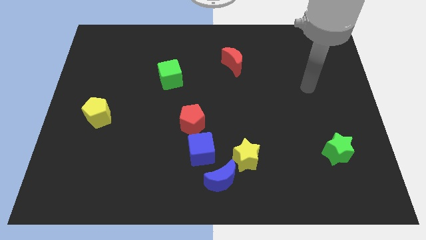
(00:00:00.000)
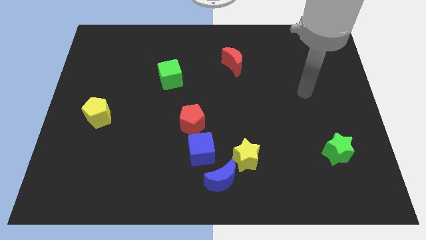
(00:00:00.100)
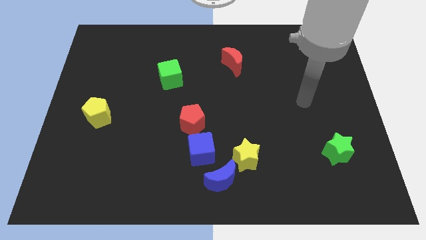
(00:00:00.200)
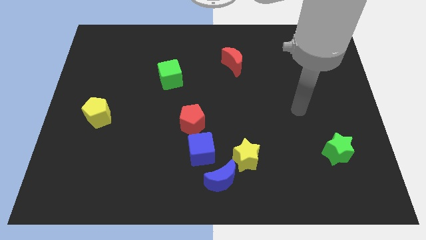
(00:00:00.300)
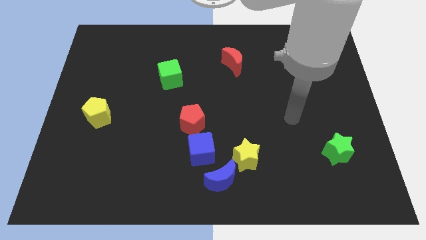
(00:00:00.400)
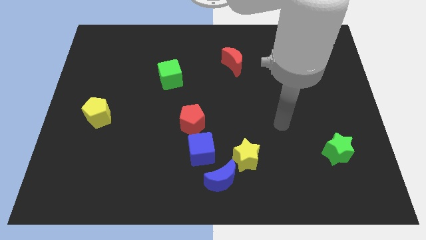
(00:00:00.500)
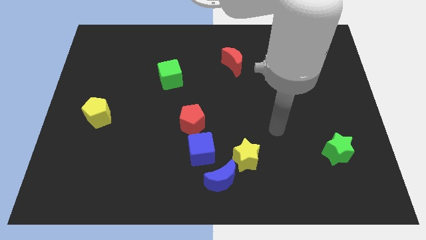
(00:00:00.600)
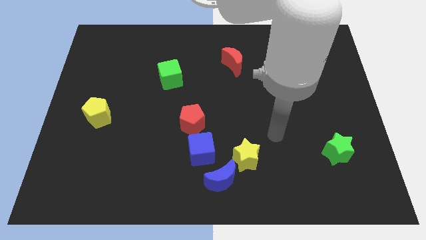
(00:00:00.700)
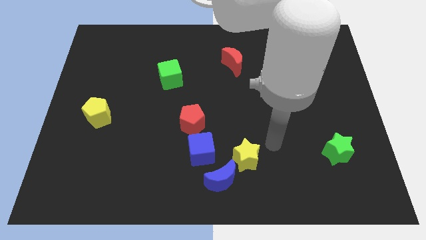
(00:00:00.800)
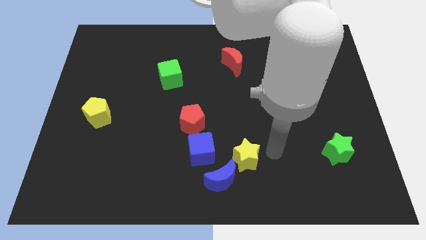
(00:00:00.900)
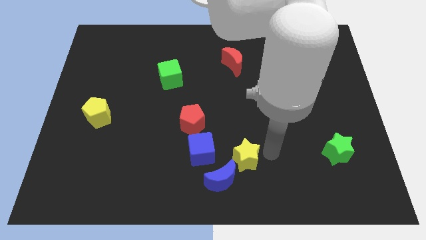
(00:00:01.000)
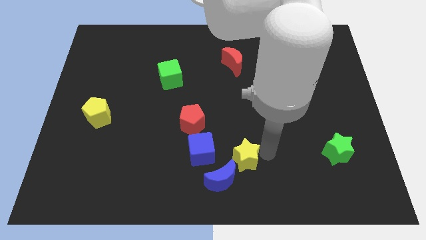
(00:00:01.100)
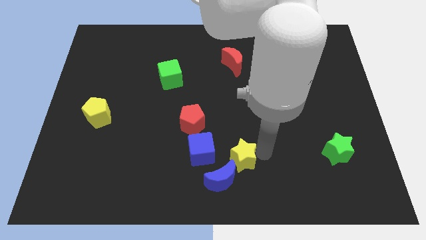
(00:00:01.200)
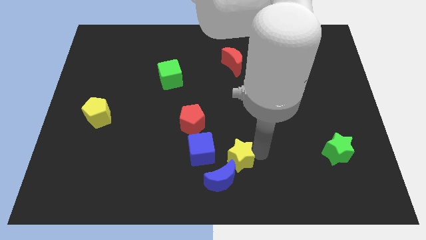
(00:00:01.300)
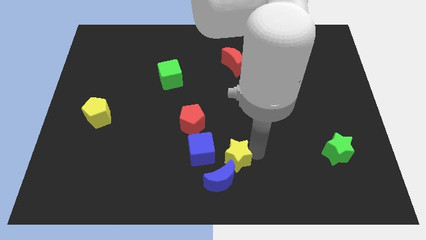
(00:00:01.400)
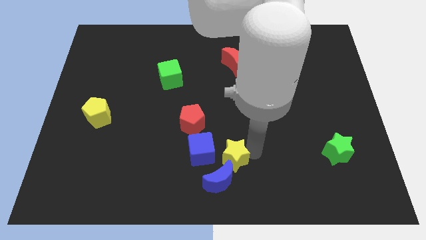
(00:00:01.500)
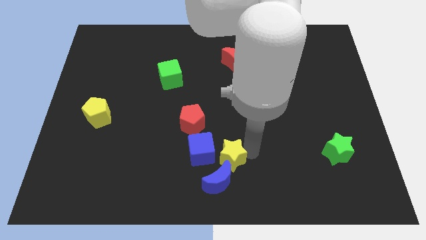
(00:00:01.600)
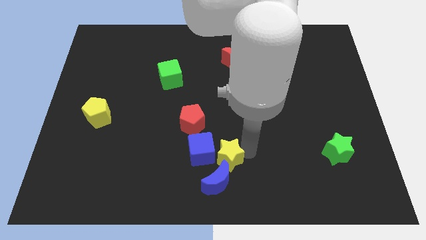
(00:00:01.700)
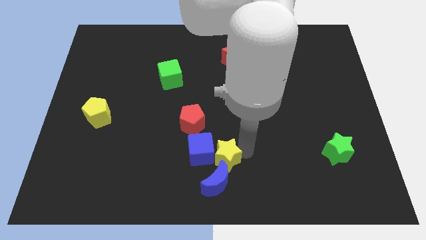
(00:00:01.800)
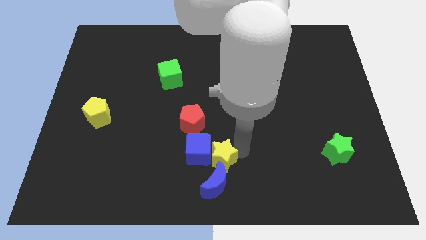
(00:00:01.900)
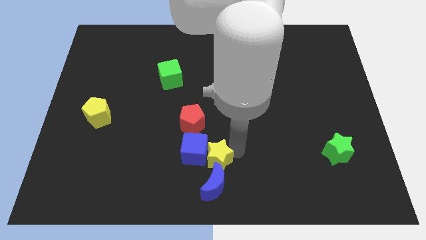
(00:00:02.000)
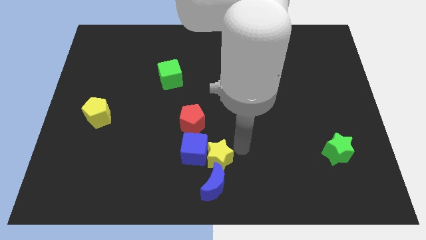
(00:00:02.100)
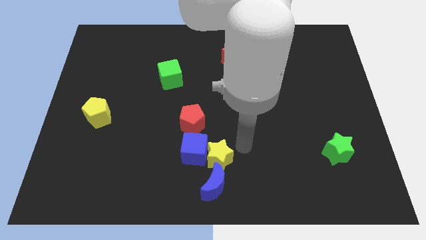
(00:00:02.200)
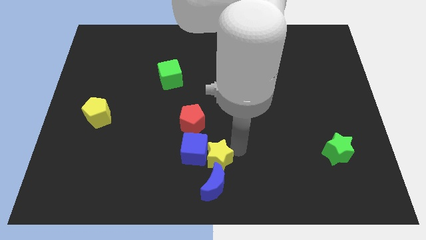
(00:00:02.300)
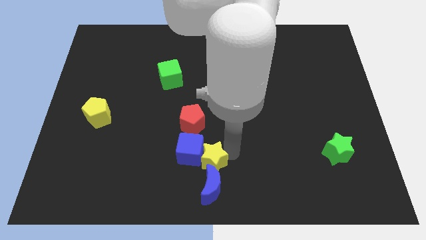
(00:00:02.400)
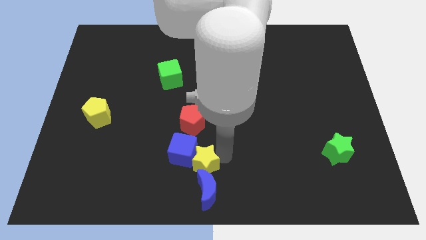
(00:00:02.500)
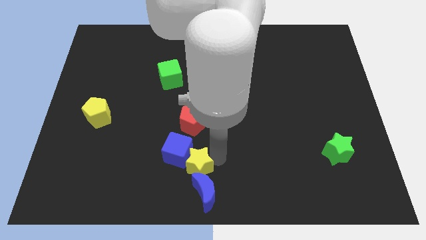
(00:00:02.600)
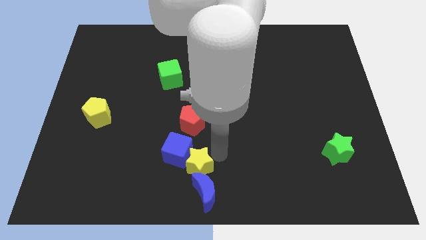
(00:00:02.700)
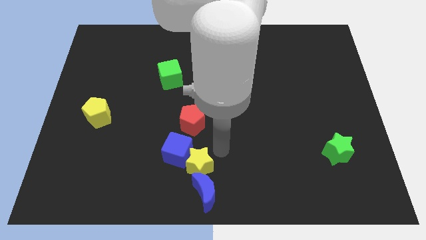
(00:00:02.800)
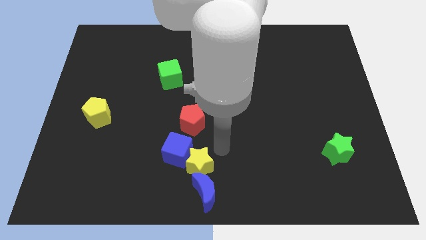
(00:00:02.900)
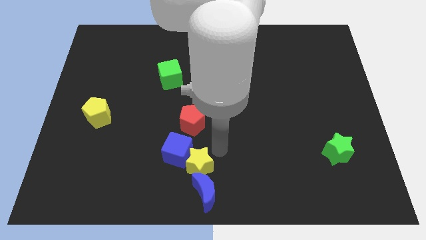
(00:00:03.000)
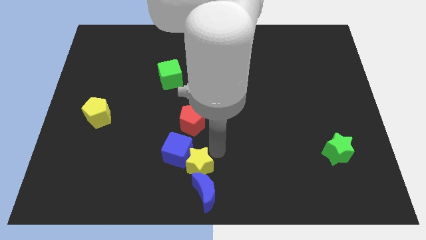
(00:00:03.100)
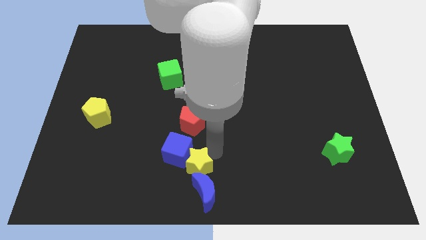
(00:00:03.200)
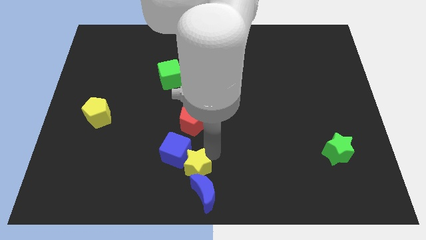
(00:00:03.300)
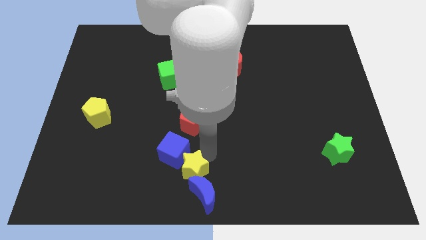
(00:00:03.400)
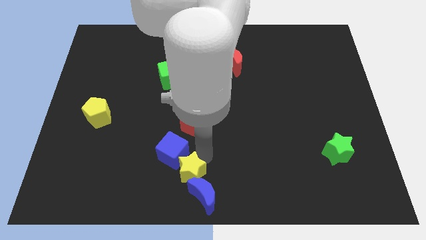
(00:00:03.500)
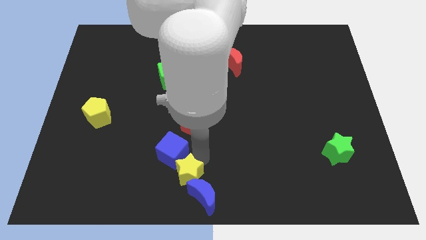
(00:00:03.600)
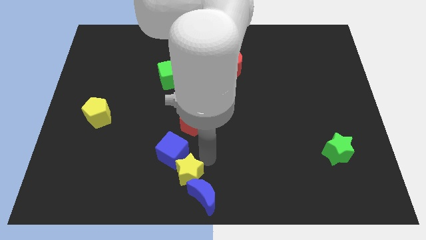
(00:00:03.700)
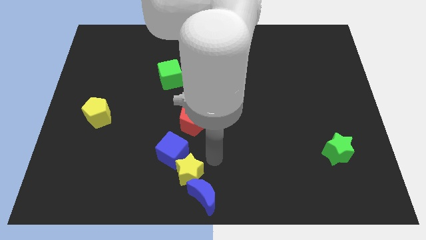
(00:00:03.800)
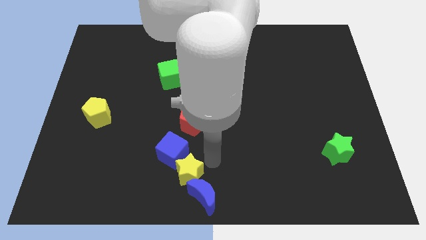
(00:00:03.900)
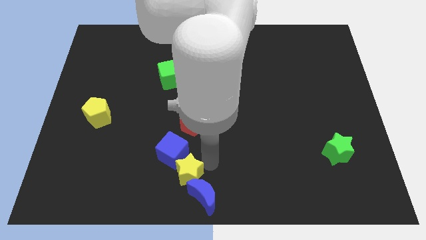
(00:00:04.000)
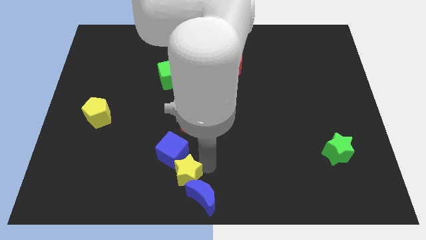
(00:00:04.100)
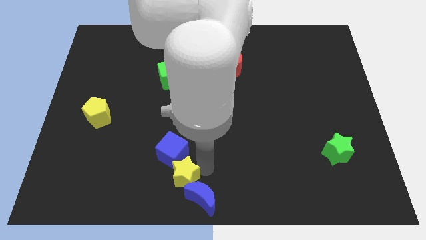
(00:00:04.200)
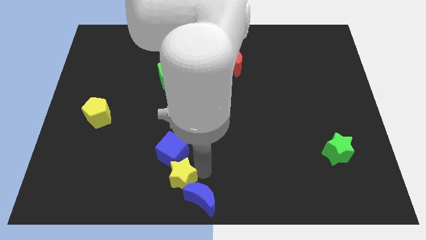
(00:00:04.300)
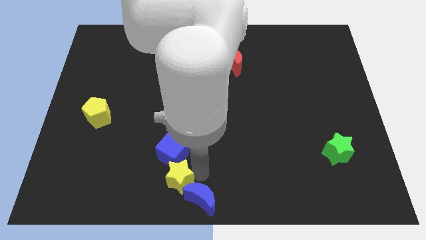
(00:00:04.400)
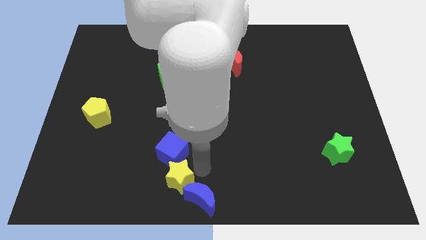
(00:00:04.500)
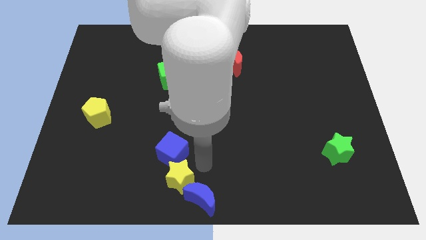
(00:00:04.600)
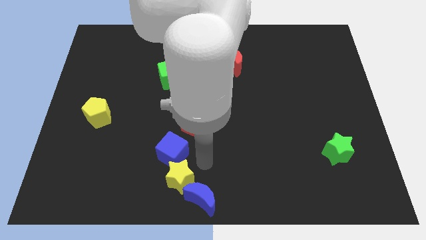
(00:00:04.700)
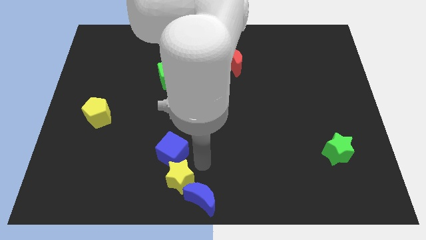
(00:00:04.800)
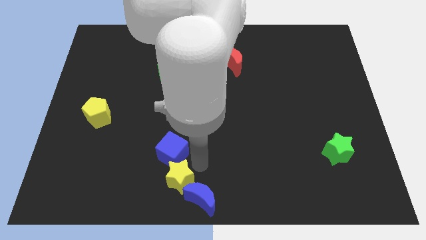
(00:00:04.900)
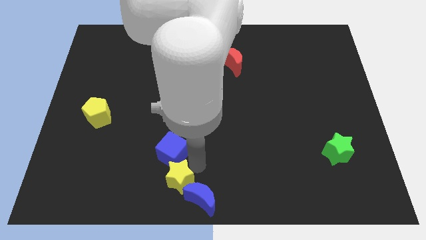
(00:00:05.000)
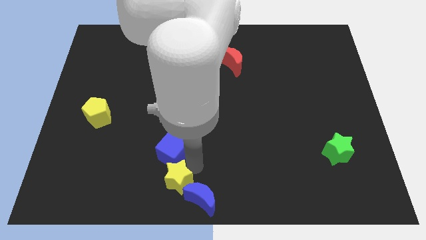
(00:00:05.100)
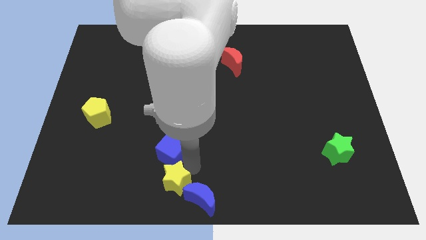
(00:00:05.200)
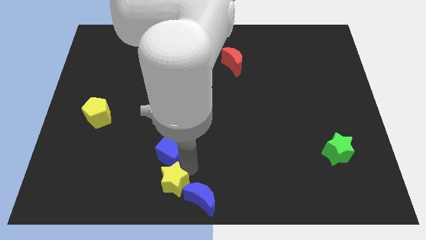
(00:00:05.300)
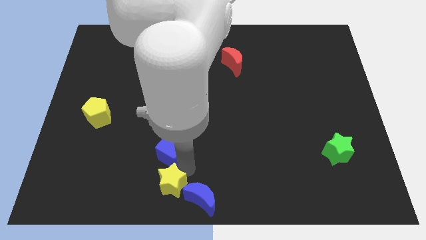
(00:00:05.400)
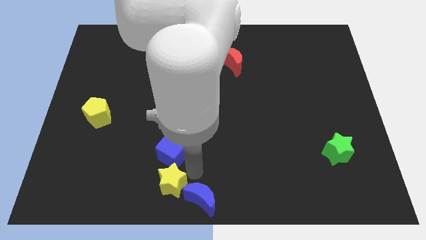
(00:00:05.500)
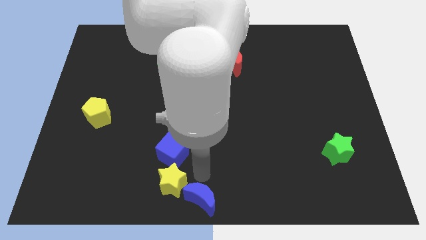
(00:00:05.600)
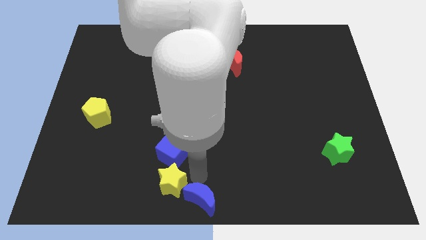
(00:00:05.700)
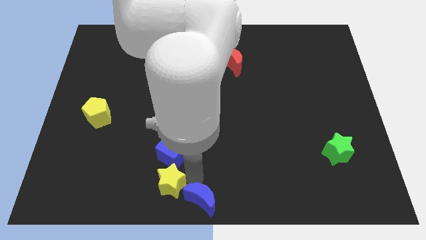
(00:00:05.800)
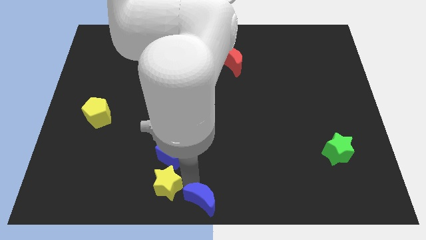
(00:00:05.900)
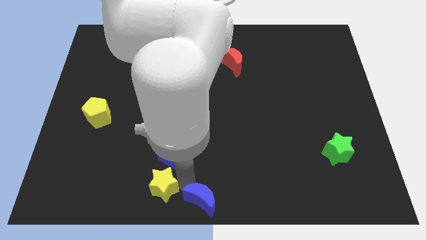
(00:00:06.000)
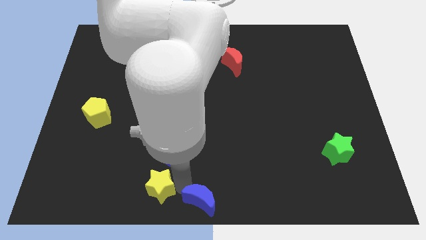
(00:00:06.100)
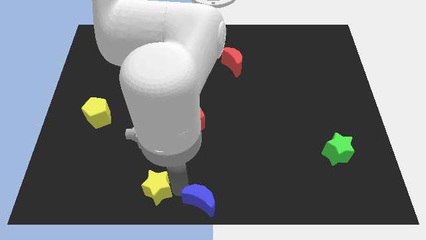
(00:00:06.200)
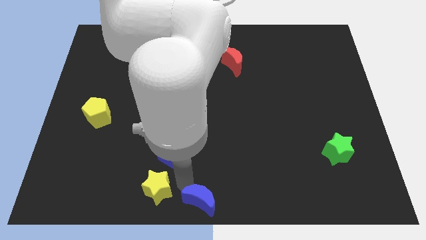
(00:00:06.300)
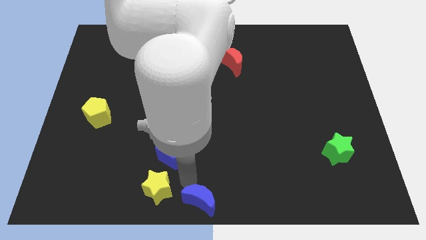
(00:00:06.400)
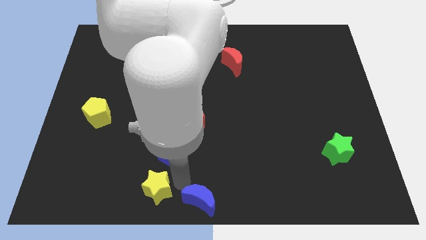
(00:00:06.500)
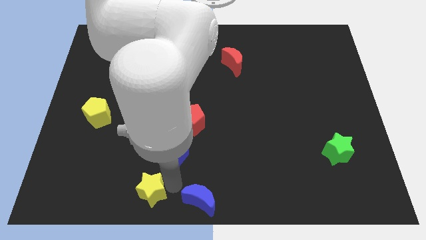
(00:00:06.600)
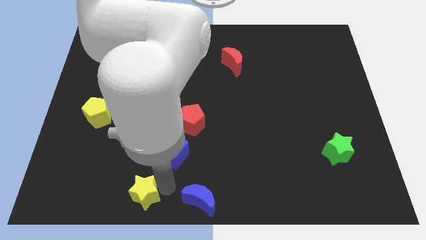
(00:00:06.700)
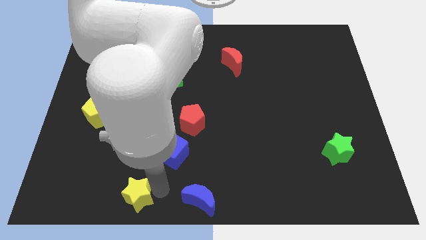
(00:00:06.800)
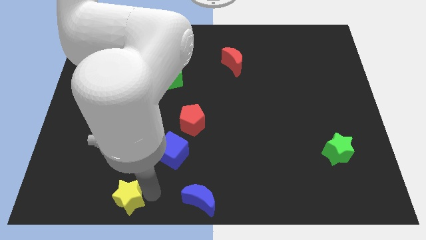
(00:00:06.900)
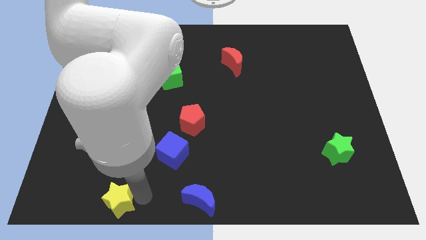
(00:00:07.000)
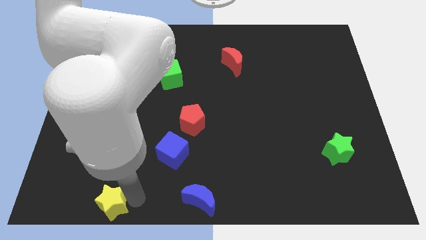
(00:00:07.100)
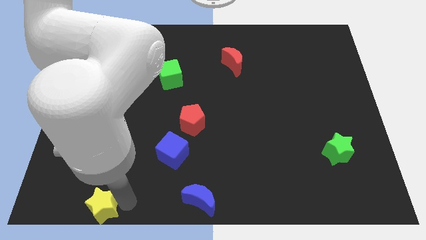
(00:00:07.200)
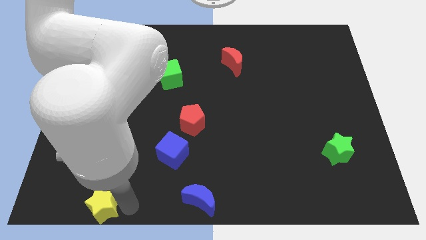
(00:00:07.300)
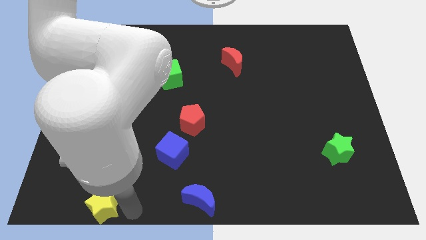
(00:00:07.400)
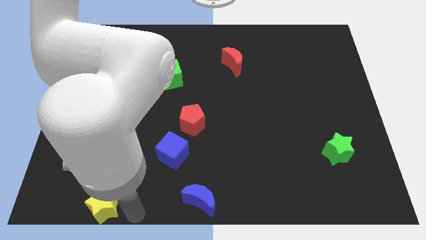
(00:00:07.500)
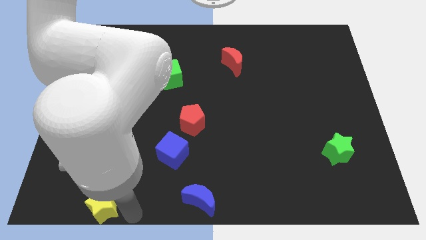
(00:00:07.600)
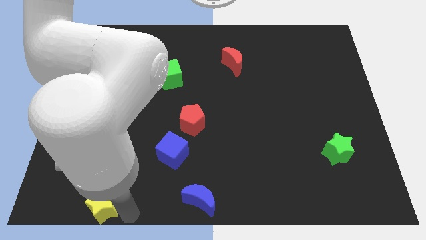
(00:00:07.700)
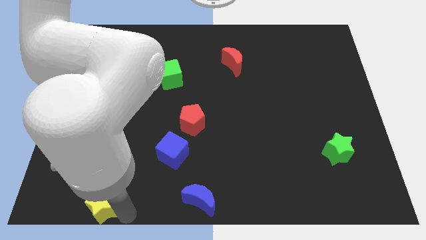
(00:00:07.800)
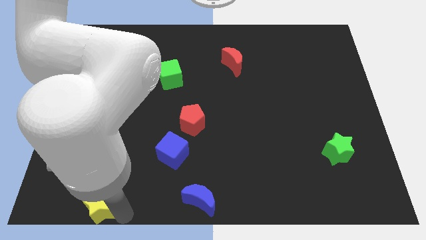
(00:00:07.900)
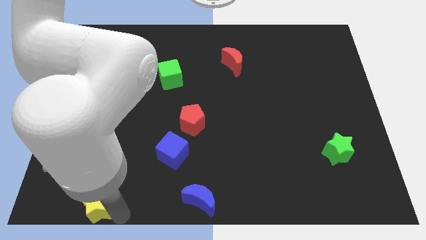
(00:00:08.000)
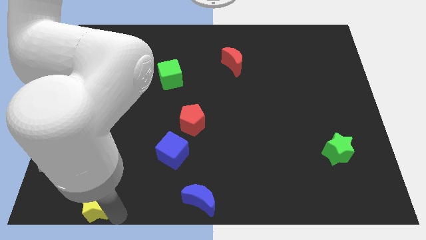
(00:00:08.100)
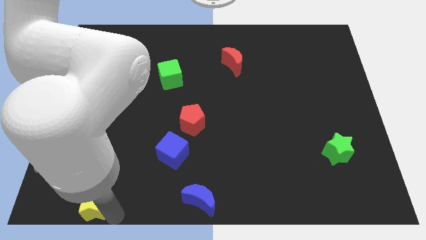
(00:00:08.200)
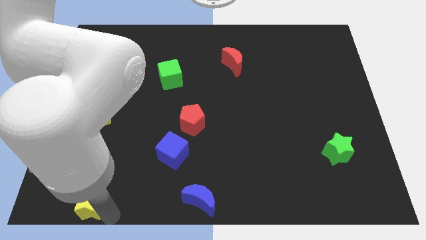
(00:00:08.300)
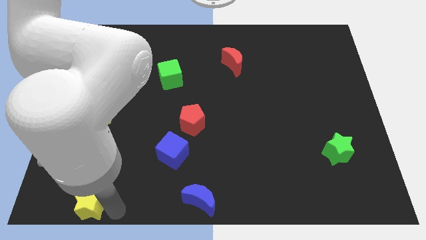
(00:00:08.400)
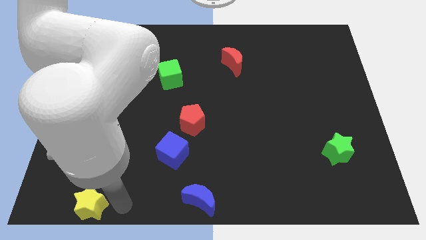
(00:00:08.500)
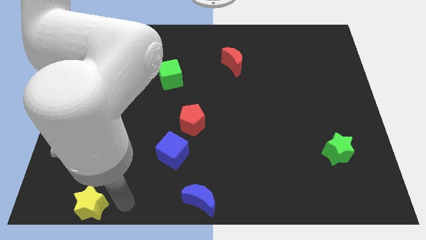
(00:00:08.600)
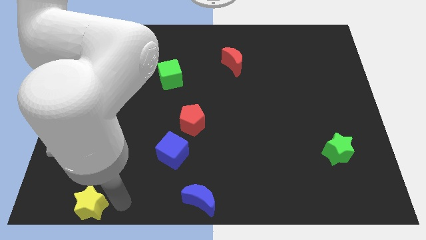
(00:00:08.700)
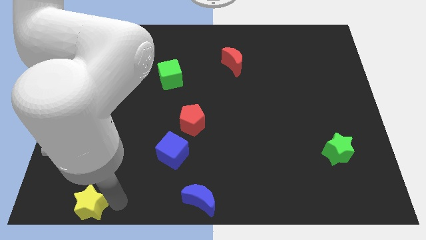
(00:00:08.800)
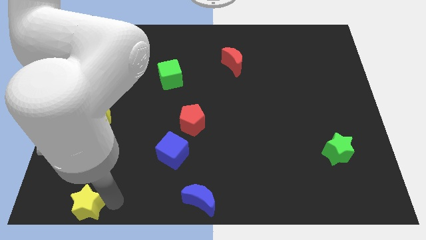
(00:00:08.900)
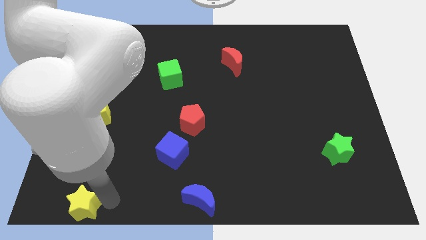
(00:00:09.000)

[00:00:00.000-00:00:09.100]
put the yellow star to the bottom left of the board
